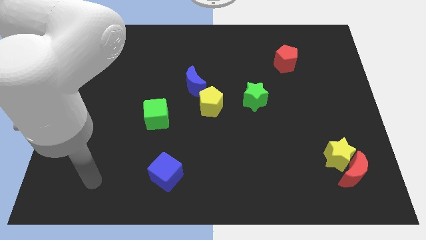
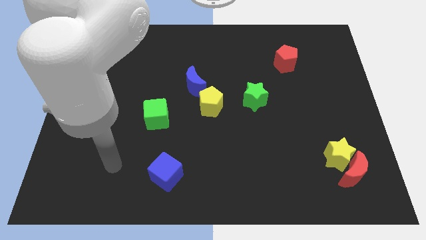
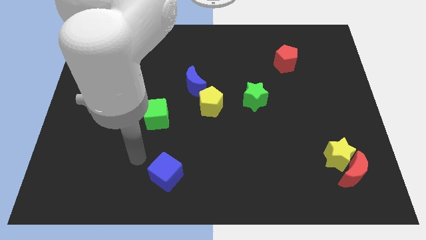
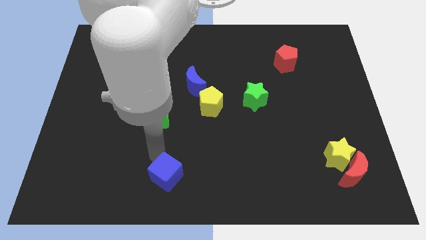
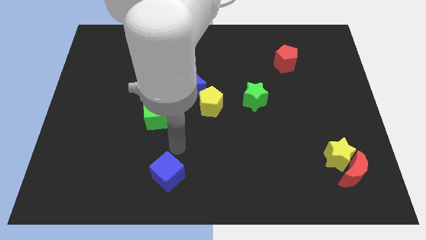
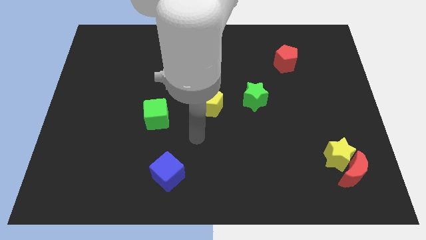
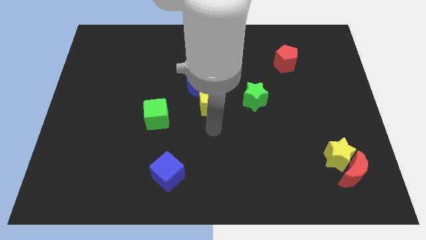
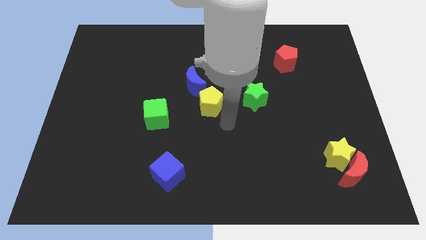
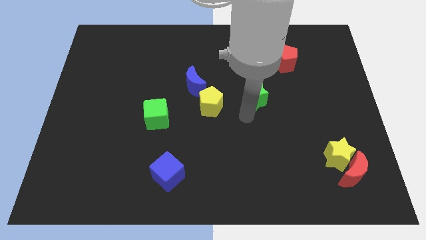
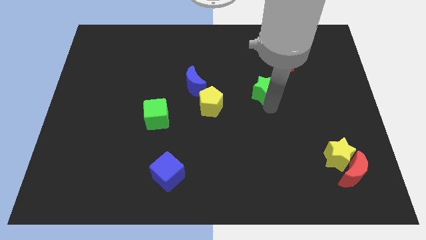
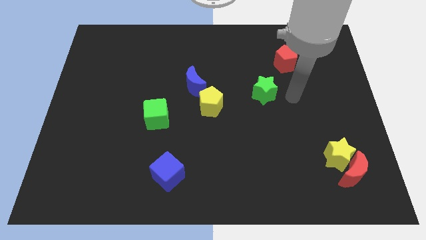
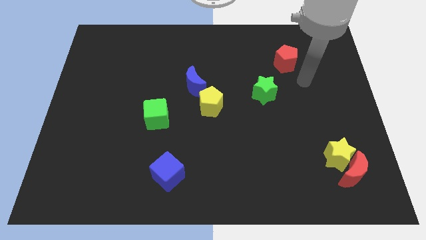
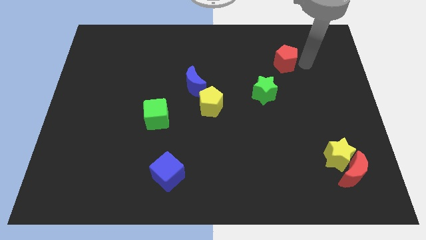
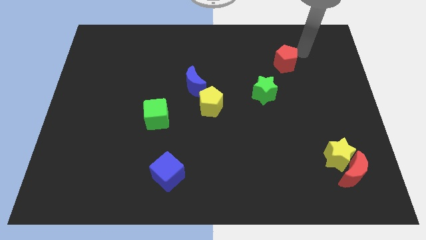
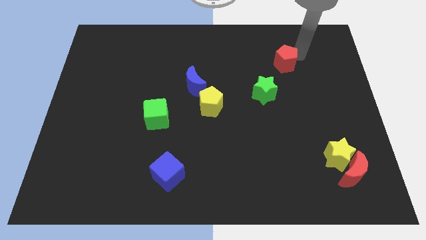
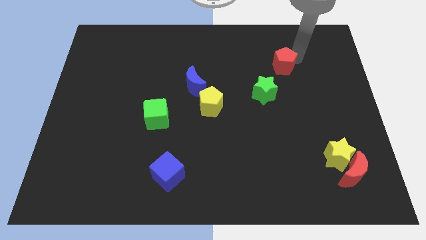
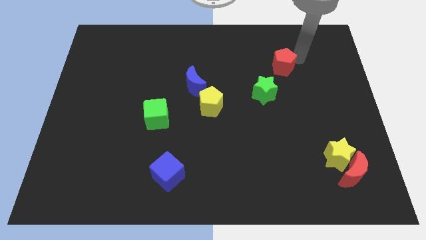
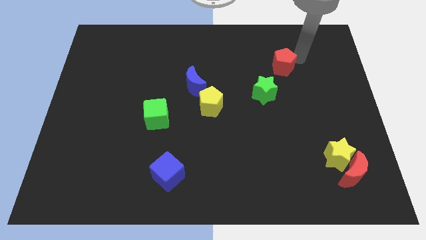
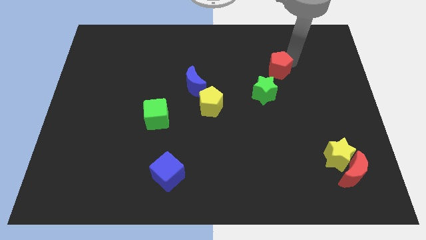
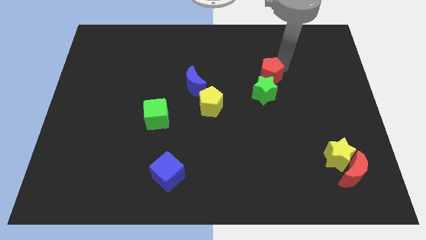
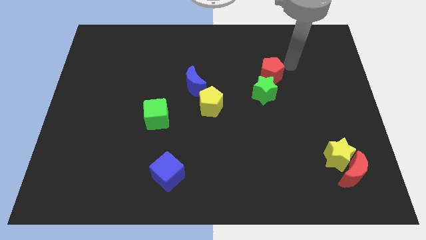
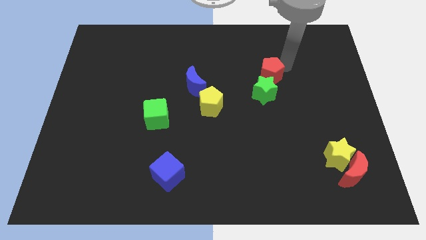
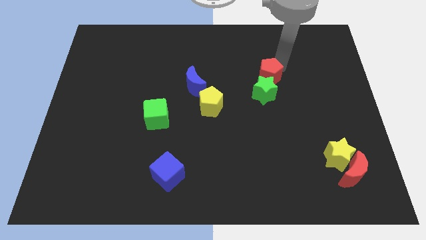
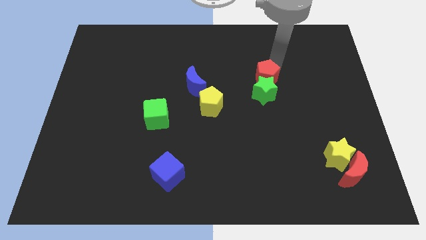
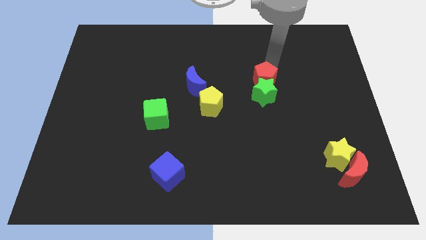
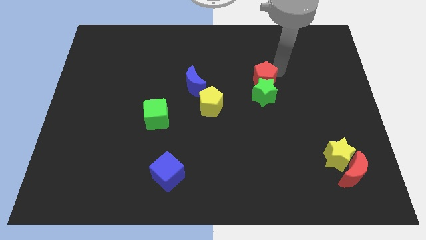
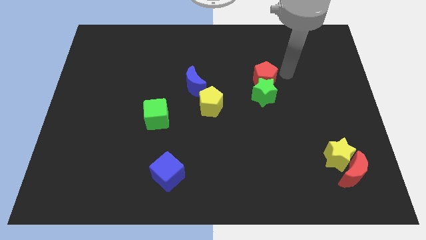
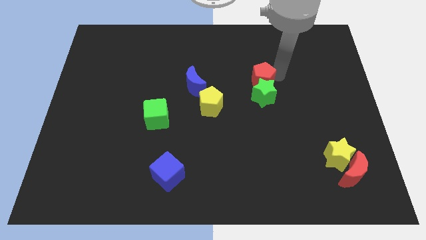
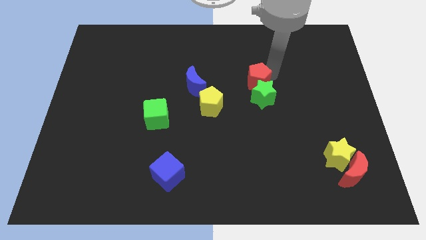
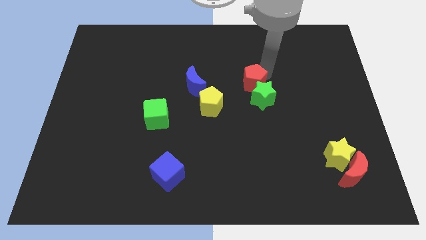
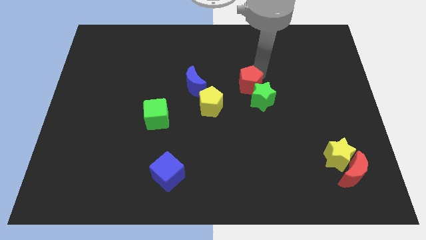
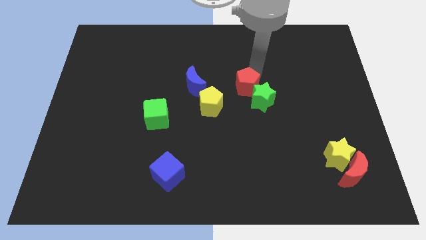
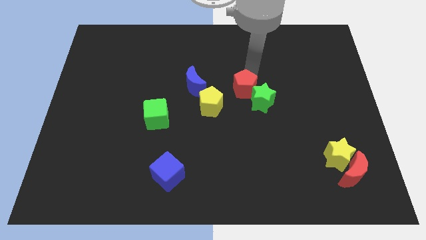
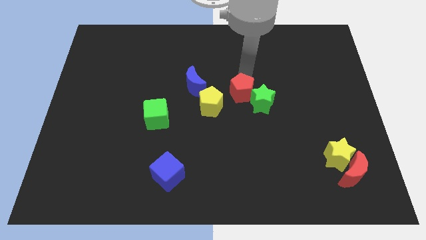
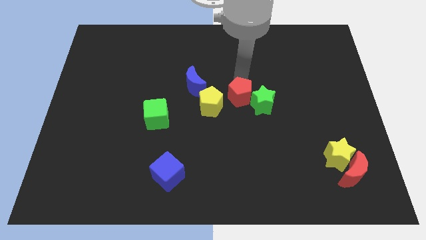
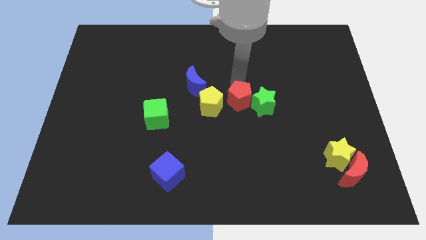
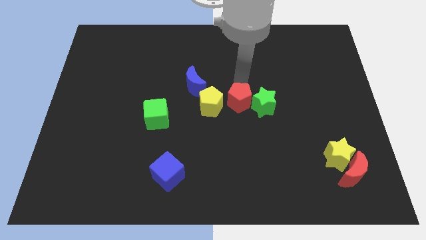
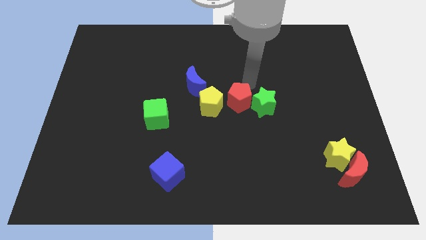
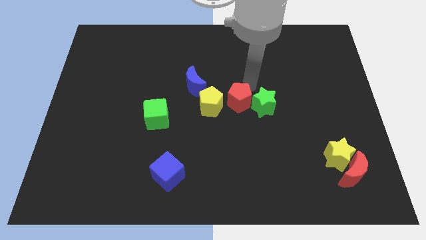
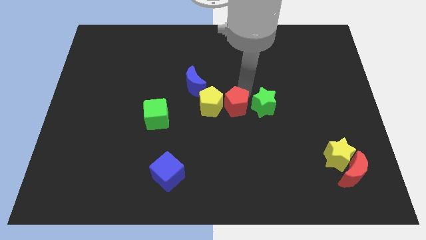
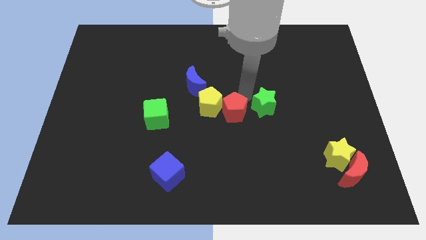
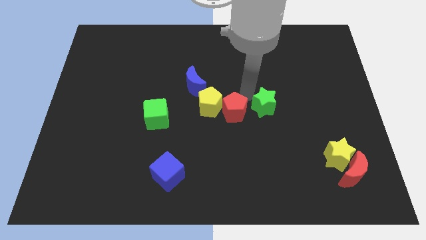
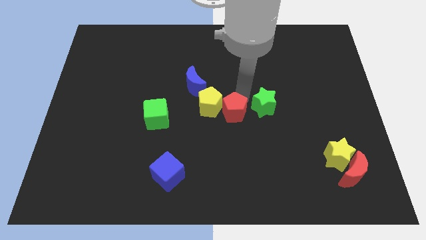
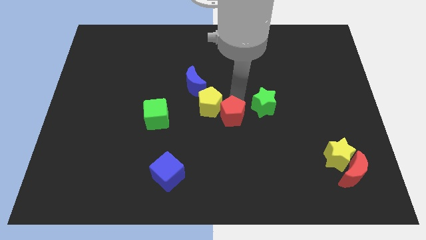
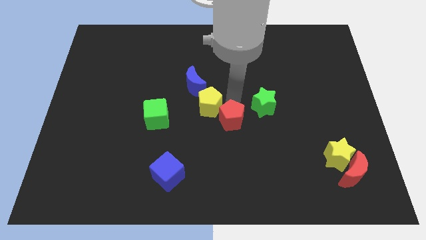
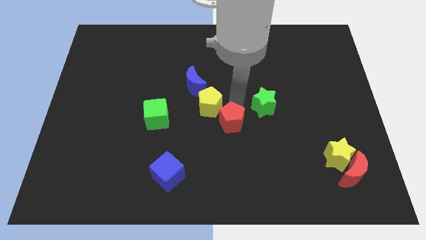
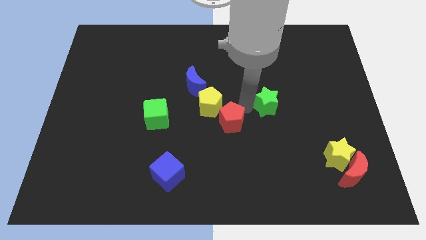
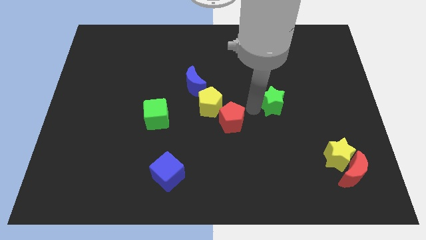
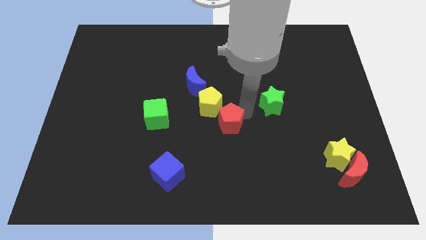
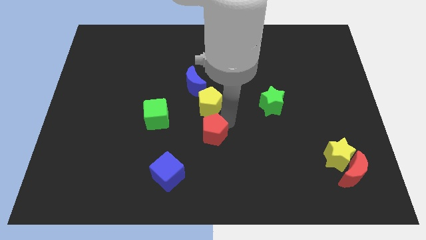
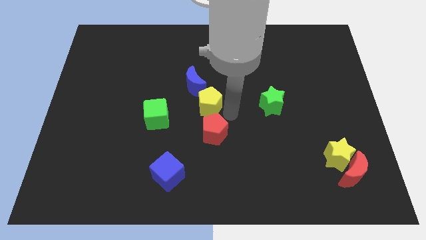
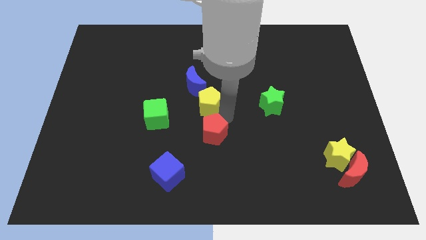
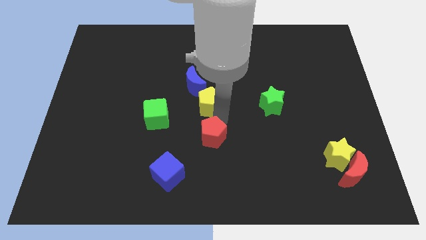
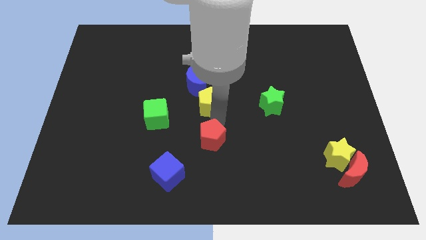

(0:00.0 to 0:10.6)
put the red pentagon to the top right of the blue cube

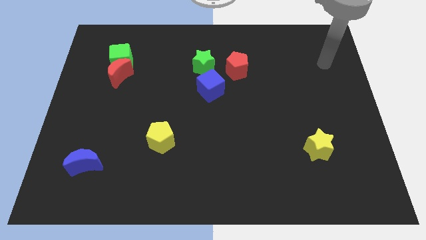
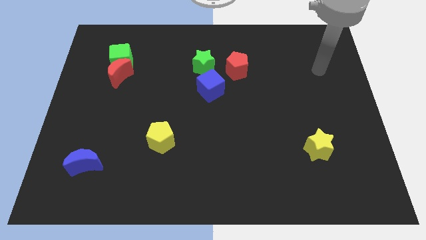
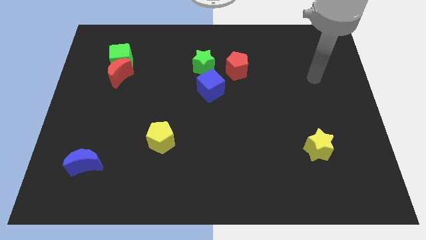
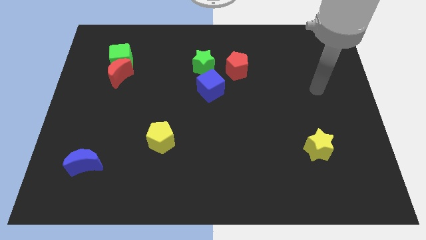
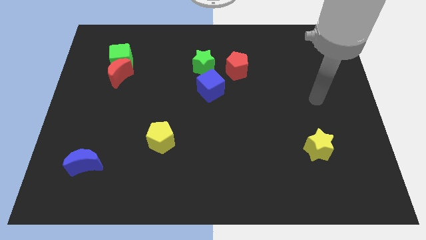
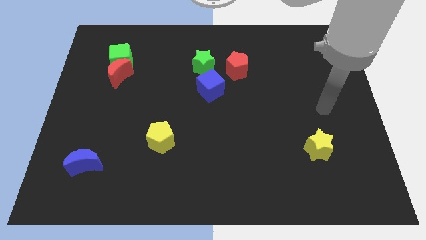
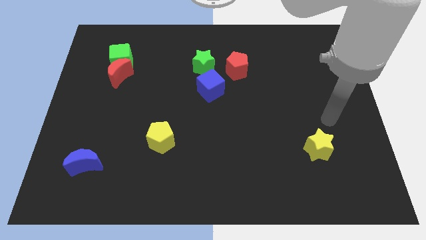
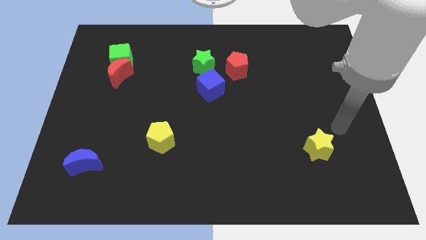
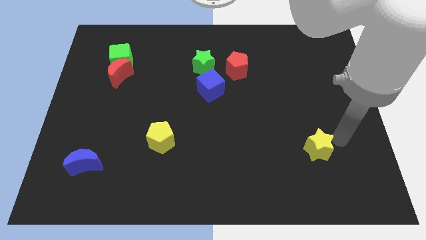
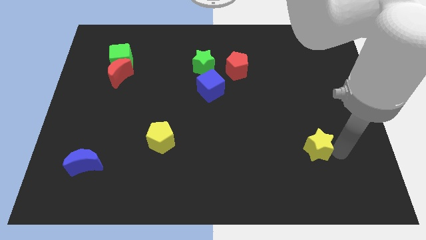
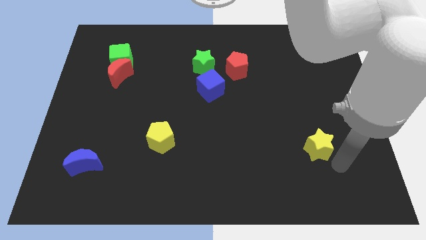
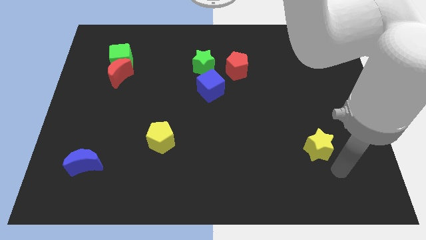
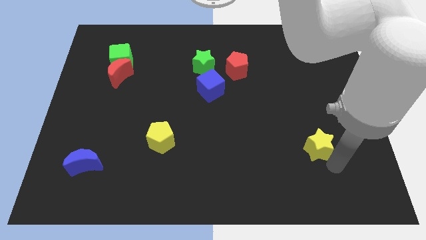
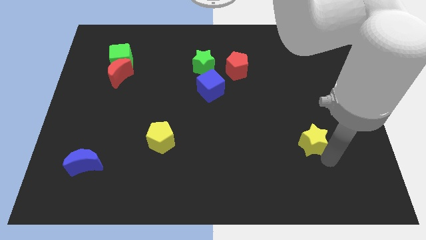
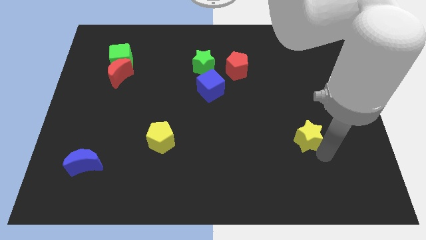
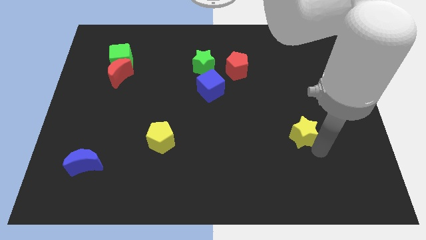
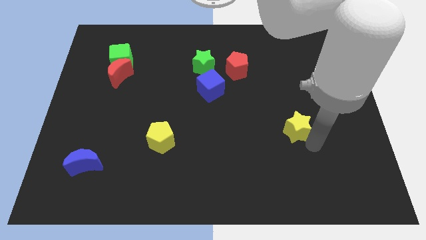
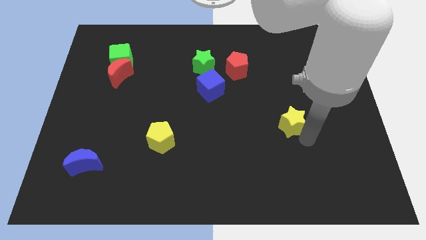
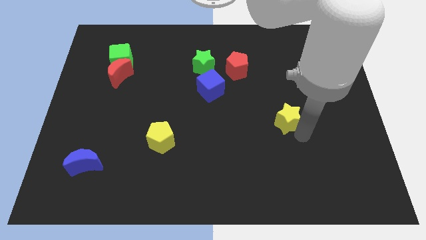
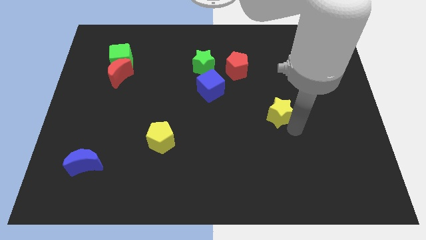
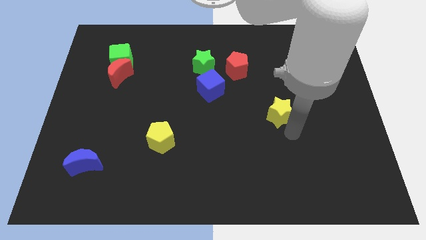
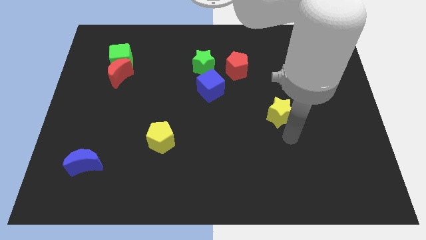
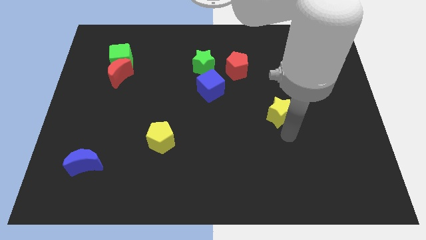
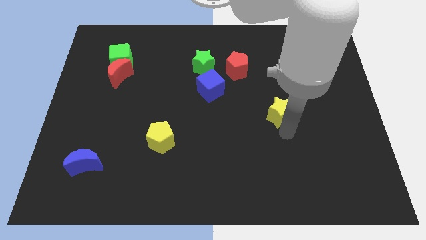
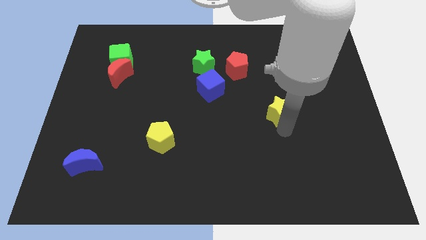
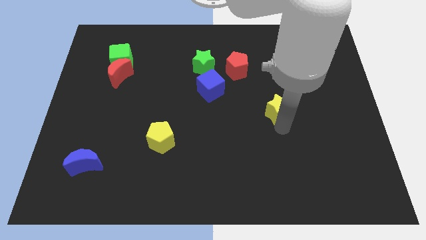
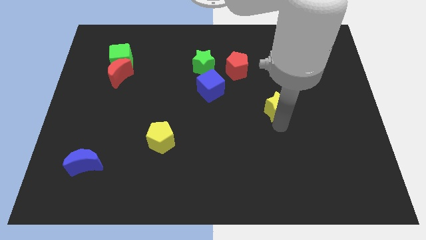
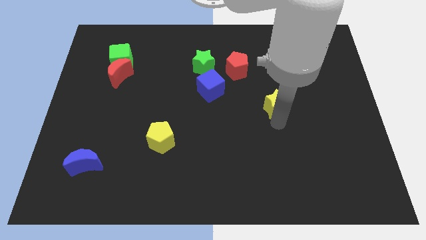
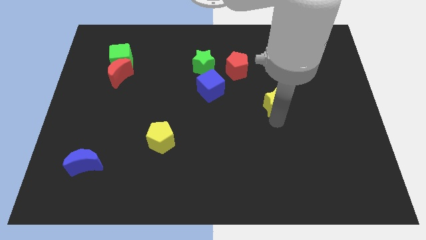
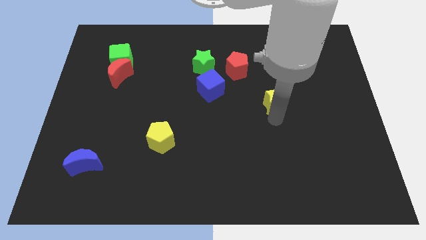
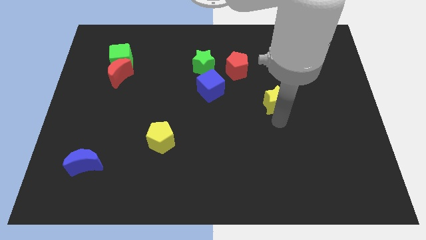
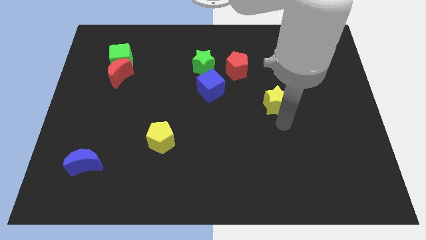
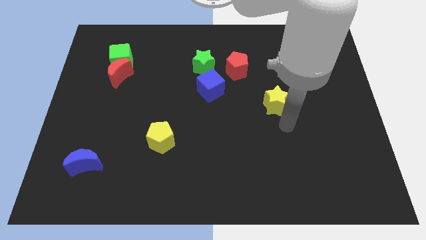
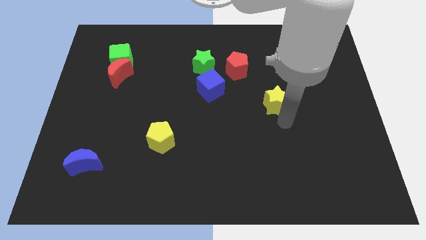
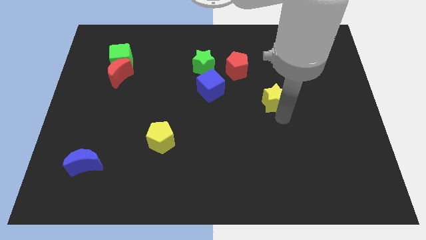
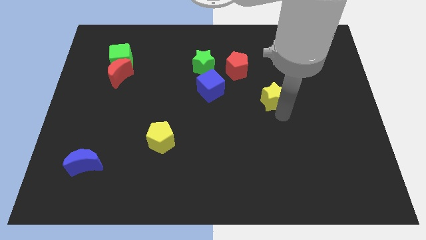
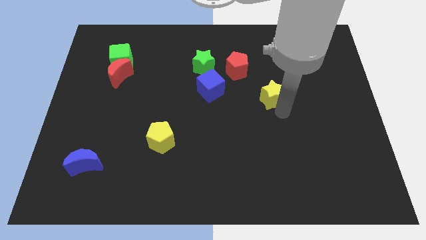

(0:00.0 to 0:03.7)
push the yellow star to the bottom right of the red pentagon
